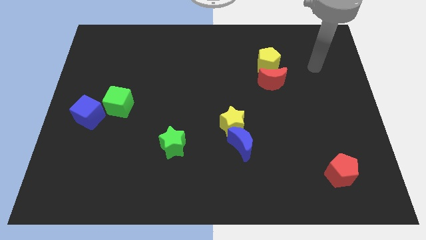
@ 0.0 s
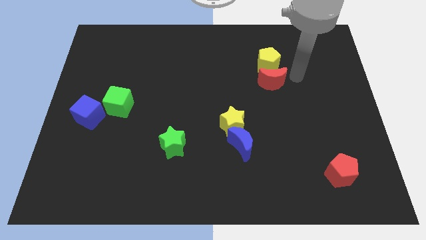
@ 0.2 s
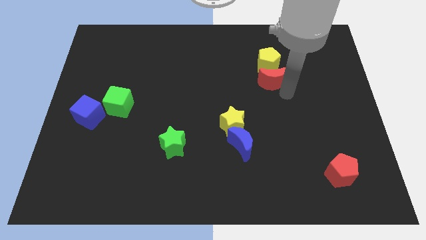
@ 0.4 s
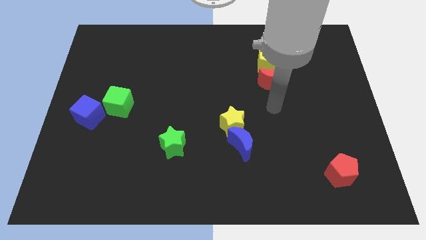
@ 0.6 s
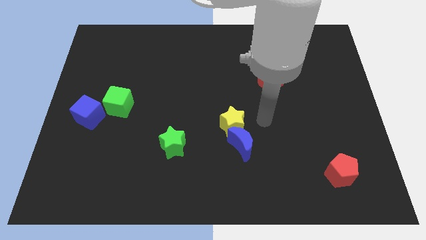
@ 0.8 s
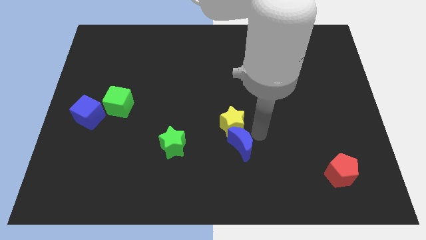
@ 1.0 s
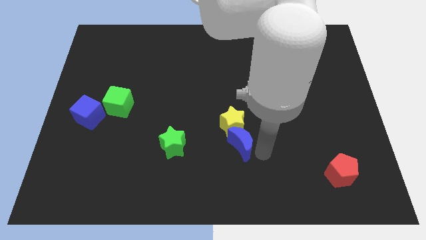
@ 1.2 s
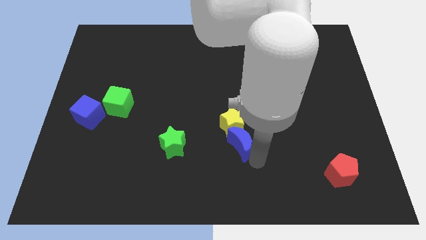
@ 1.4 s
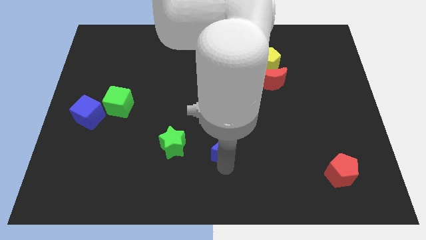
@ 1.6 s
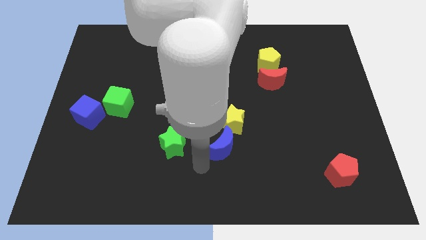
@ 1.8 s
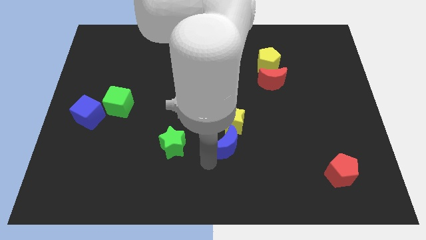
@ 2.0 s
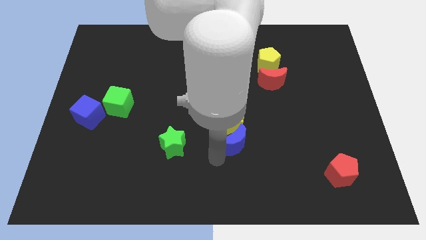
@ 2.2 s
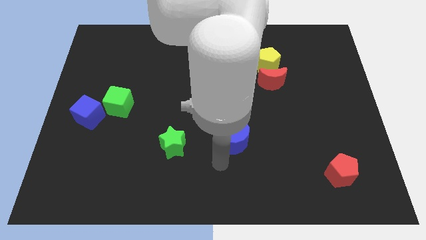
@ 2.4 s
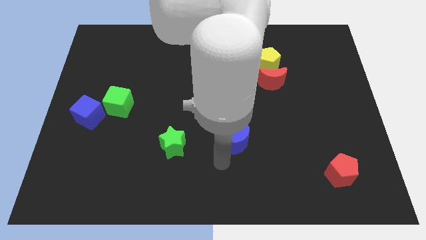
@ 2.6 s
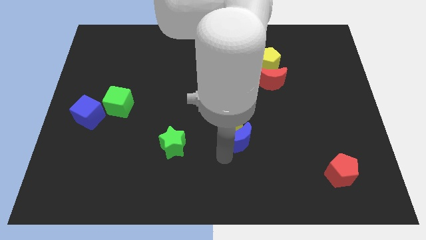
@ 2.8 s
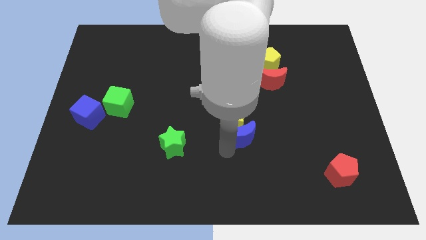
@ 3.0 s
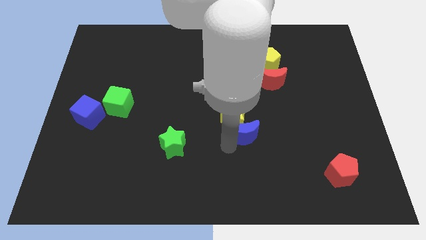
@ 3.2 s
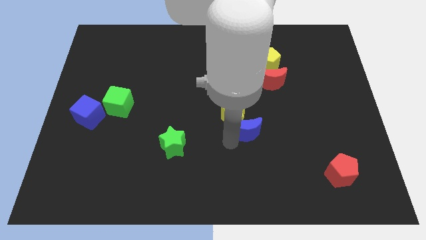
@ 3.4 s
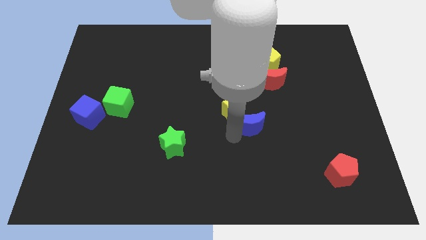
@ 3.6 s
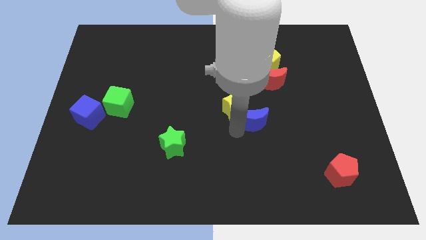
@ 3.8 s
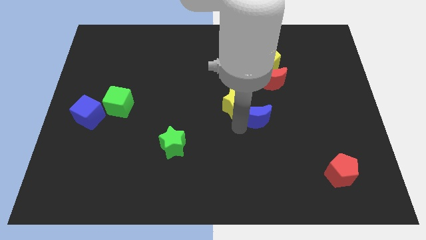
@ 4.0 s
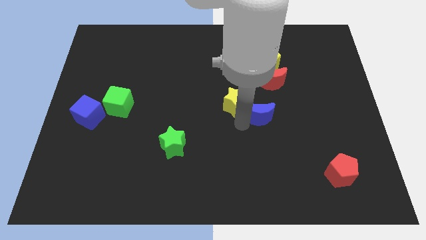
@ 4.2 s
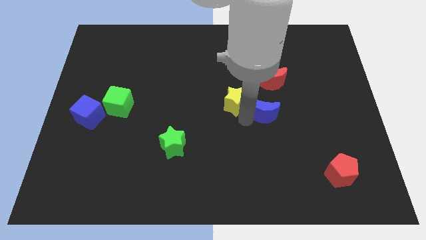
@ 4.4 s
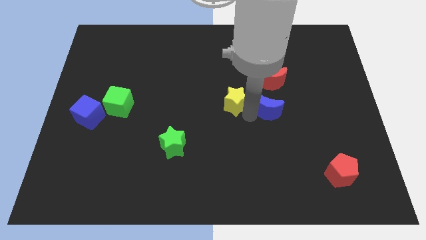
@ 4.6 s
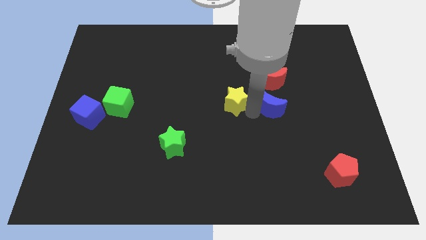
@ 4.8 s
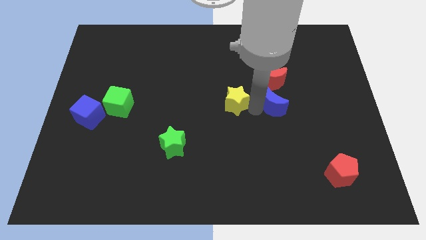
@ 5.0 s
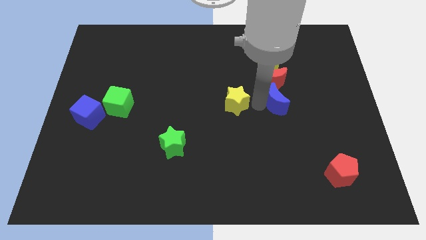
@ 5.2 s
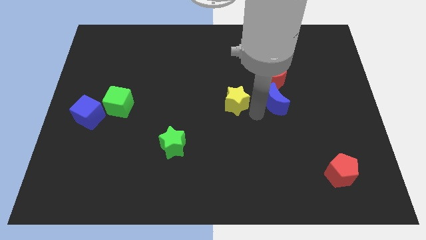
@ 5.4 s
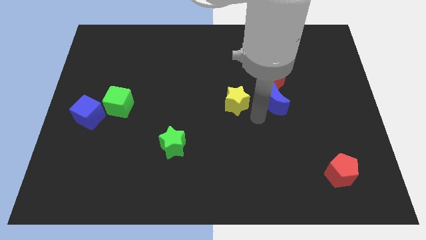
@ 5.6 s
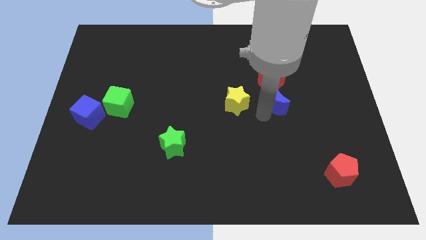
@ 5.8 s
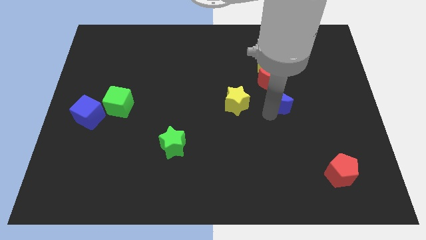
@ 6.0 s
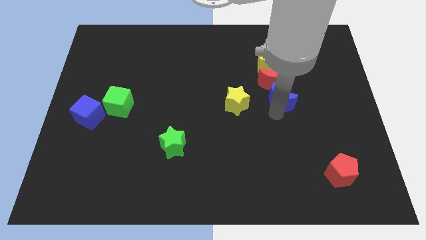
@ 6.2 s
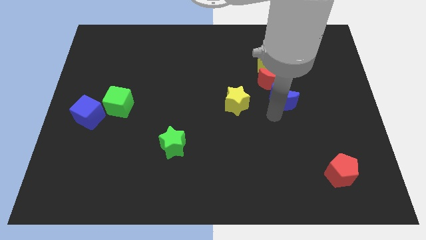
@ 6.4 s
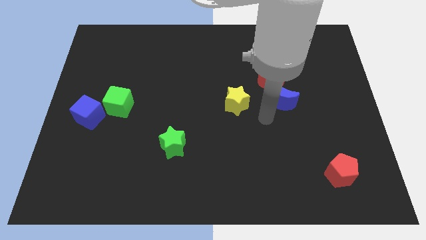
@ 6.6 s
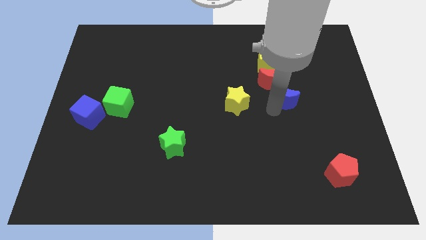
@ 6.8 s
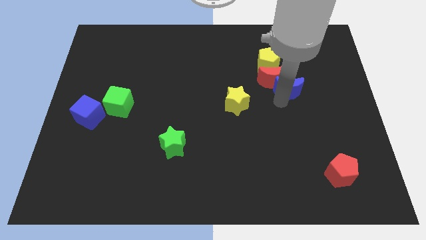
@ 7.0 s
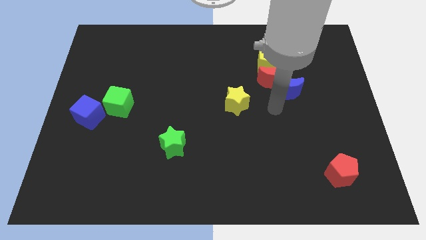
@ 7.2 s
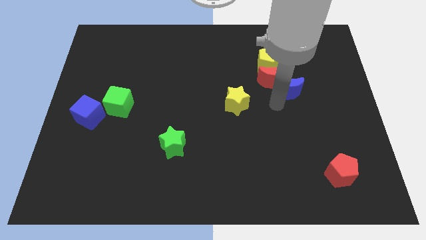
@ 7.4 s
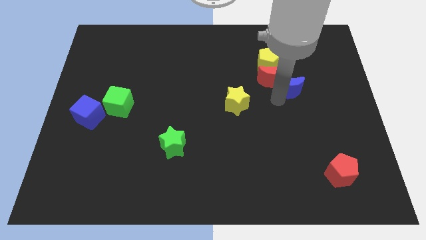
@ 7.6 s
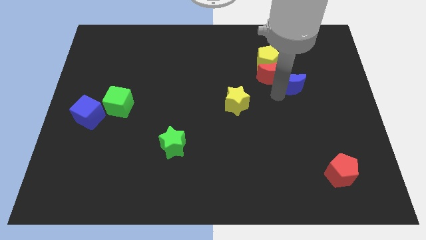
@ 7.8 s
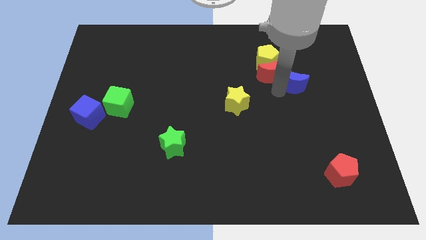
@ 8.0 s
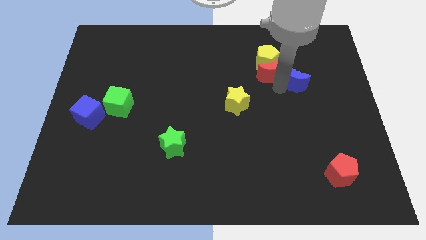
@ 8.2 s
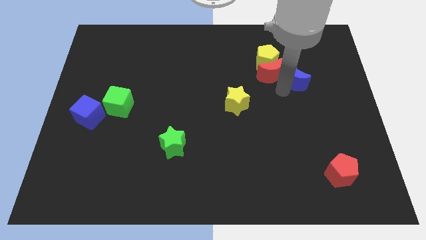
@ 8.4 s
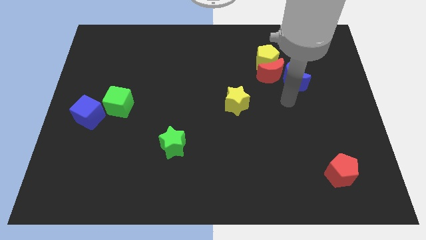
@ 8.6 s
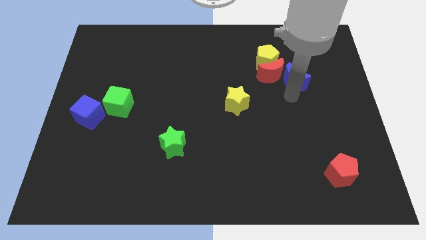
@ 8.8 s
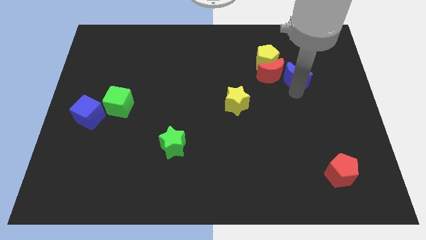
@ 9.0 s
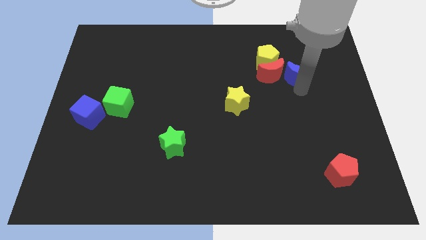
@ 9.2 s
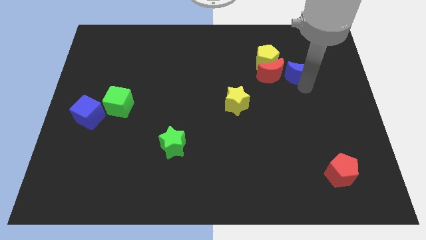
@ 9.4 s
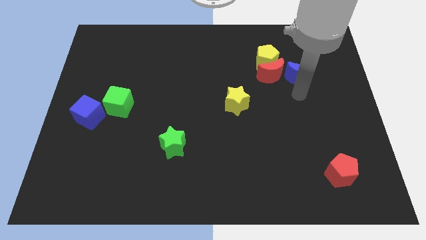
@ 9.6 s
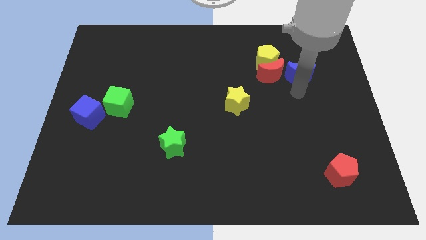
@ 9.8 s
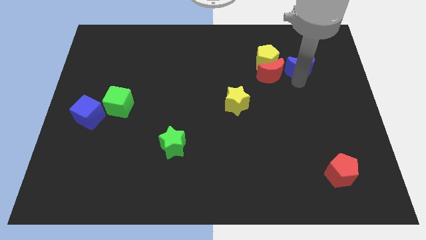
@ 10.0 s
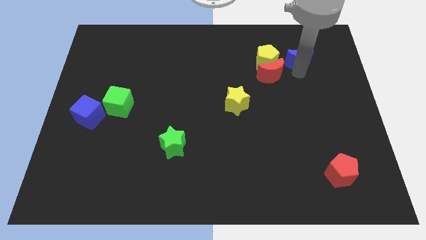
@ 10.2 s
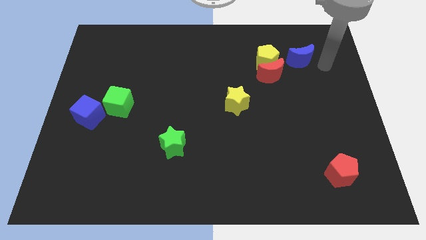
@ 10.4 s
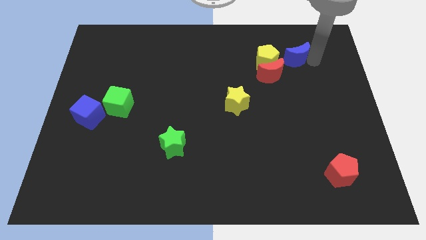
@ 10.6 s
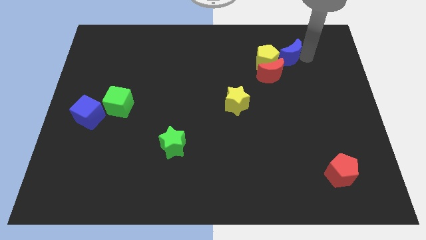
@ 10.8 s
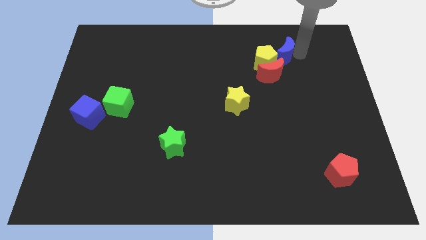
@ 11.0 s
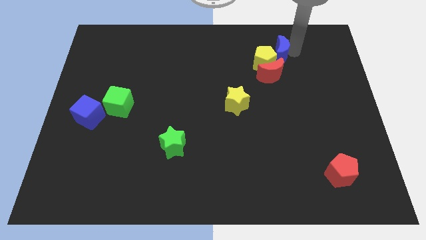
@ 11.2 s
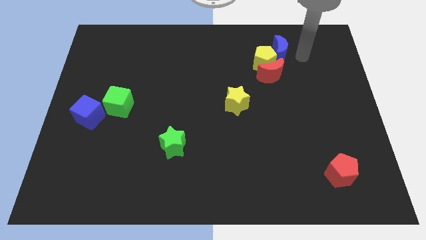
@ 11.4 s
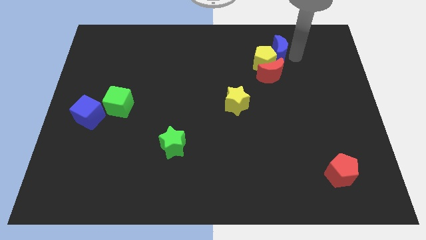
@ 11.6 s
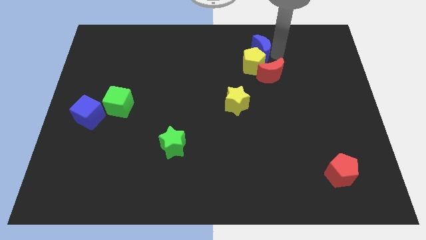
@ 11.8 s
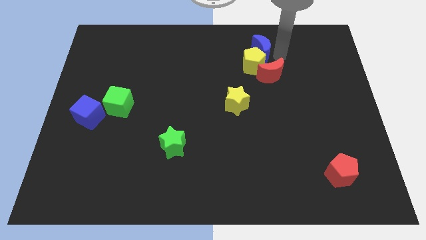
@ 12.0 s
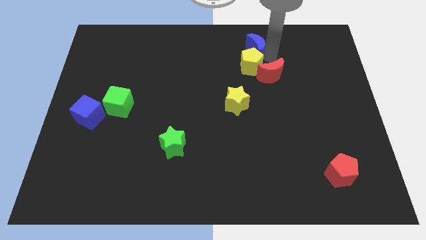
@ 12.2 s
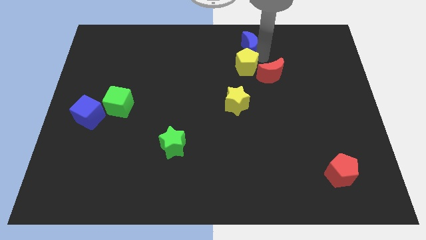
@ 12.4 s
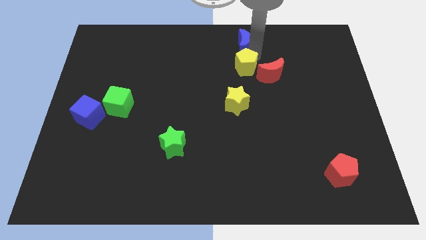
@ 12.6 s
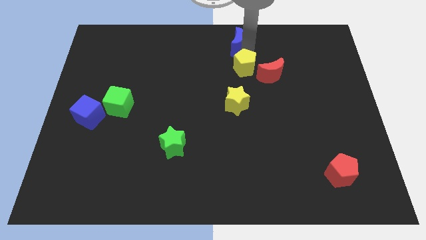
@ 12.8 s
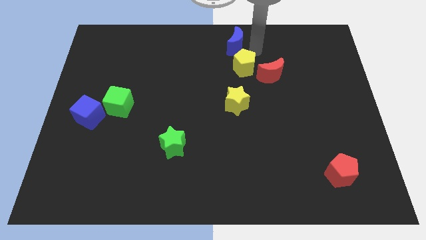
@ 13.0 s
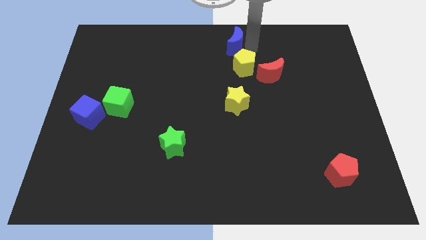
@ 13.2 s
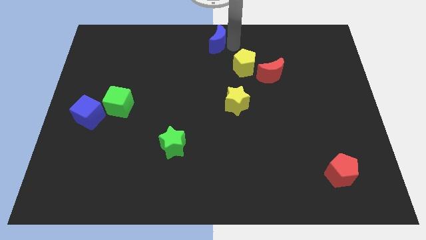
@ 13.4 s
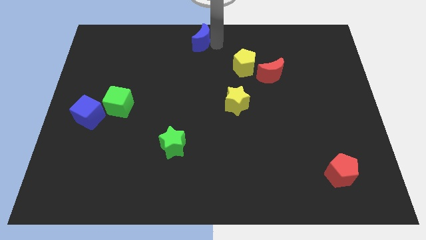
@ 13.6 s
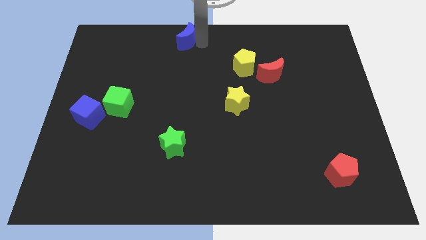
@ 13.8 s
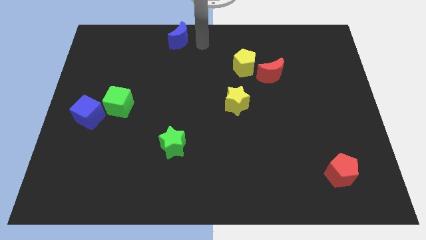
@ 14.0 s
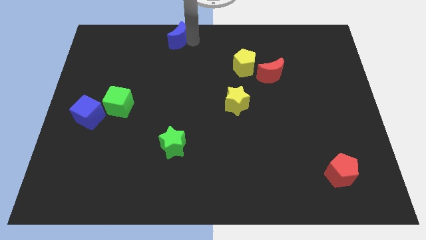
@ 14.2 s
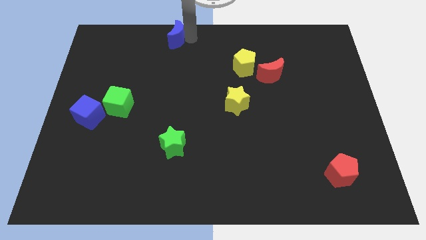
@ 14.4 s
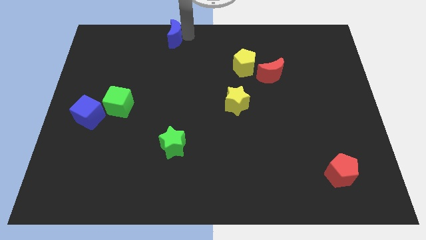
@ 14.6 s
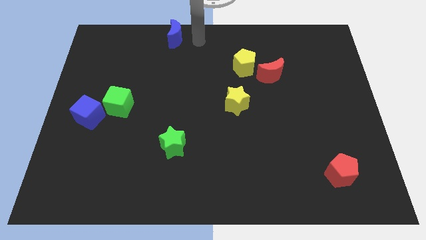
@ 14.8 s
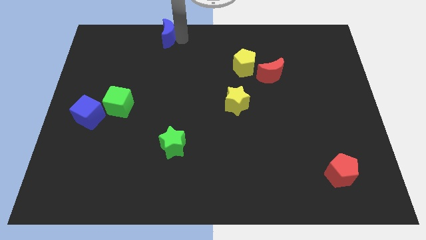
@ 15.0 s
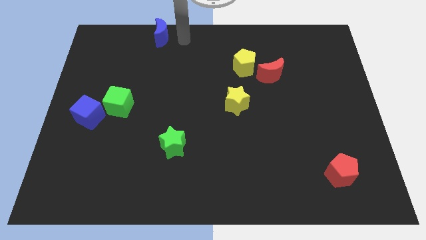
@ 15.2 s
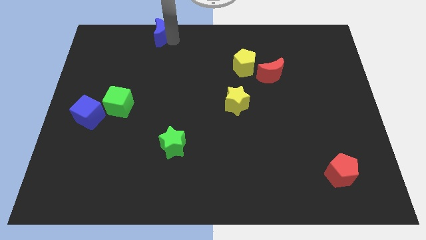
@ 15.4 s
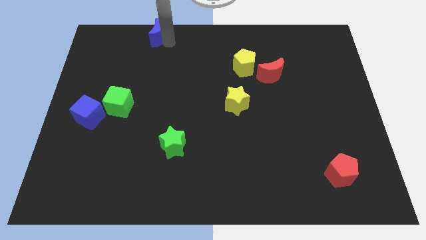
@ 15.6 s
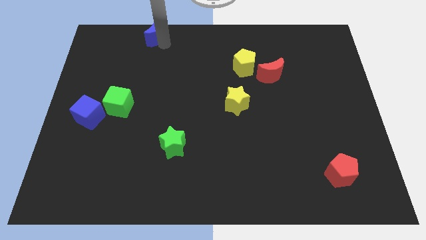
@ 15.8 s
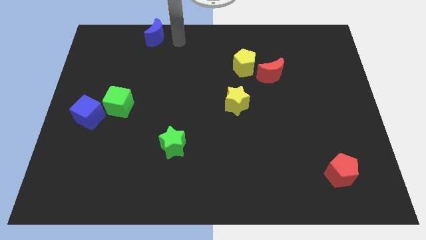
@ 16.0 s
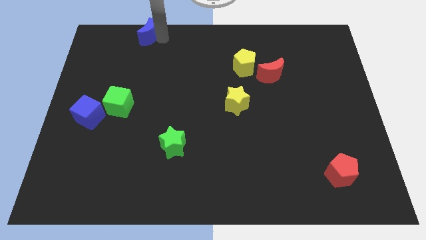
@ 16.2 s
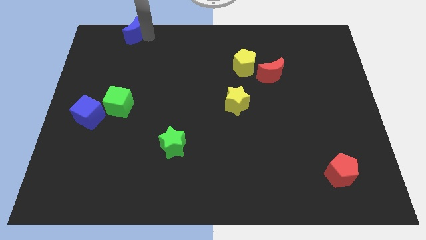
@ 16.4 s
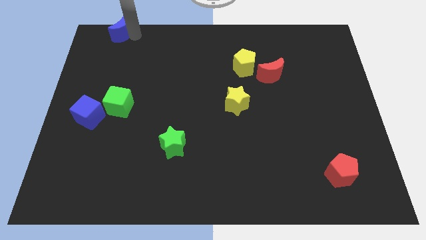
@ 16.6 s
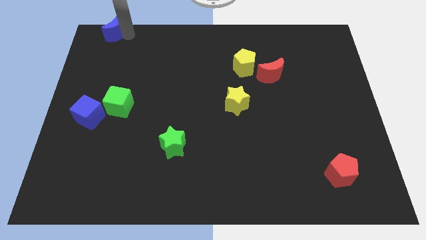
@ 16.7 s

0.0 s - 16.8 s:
put the blue moon to the top left of the board
